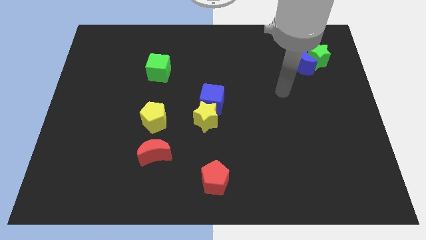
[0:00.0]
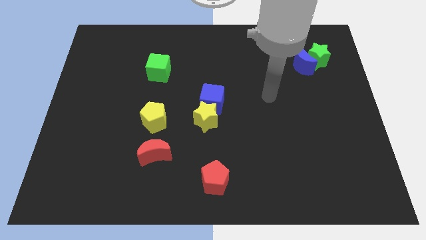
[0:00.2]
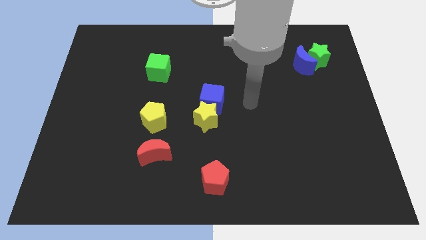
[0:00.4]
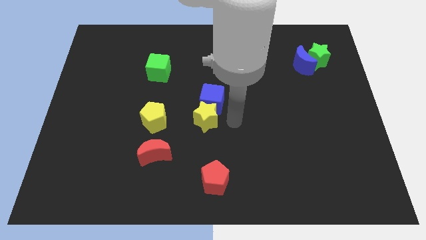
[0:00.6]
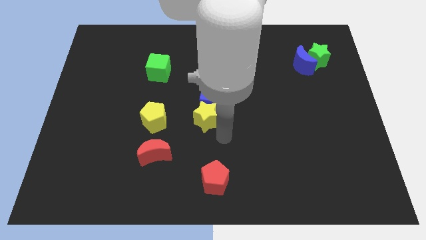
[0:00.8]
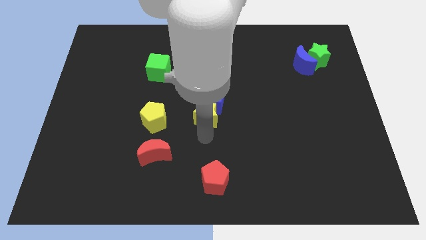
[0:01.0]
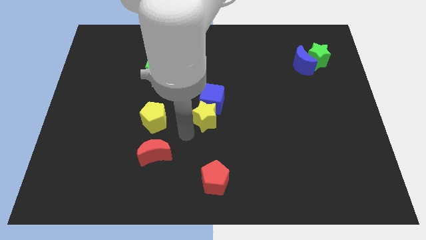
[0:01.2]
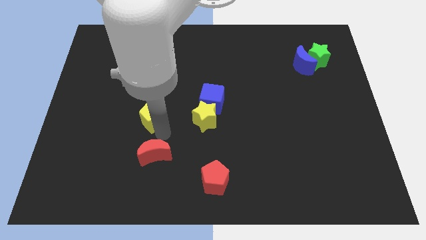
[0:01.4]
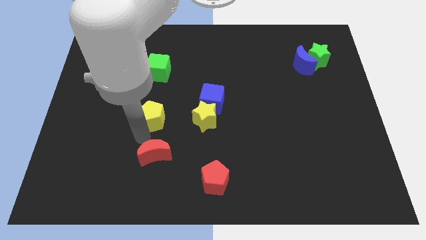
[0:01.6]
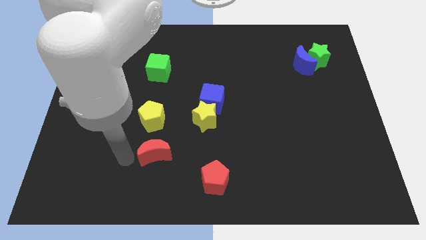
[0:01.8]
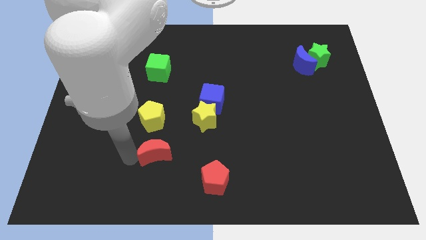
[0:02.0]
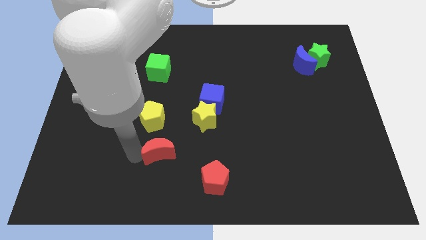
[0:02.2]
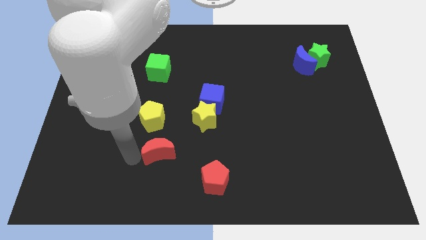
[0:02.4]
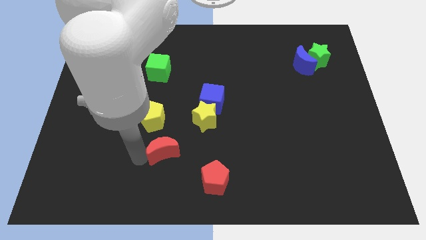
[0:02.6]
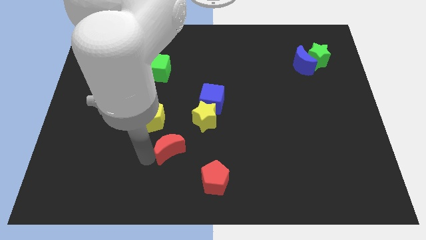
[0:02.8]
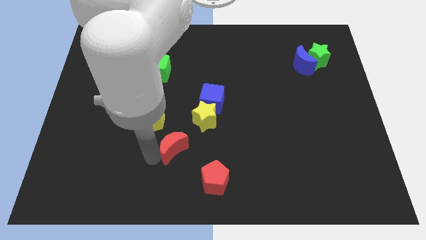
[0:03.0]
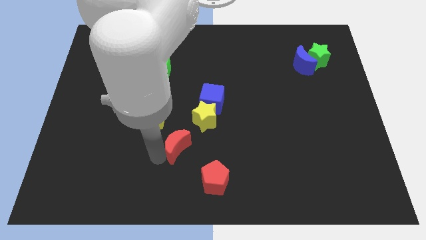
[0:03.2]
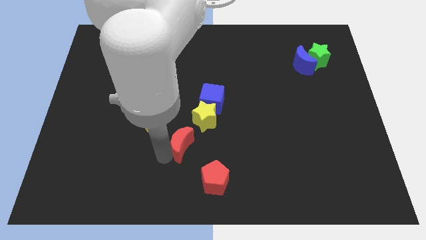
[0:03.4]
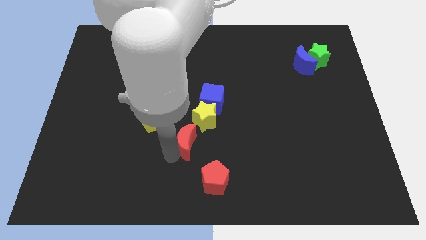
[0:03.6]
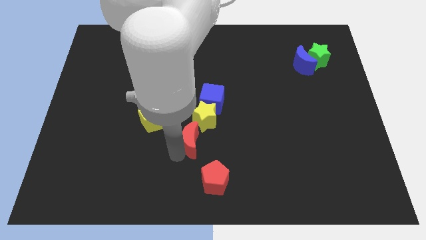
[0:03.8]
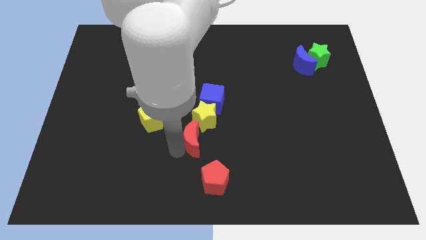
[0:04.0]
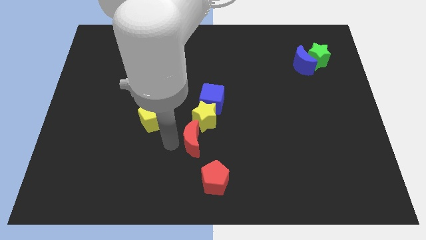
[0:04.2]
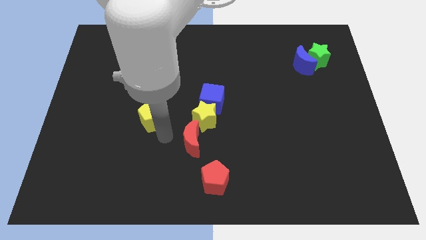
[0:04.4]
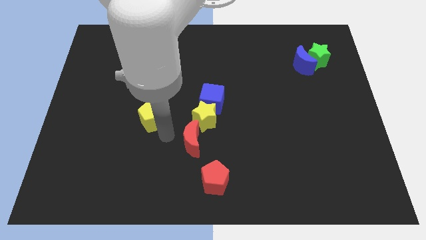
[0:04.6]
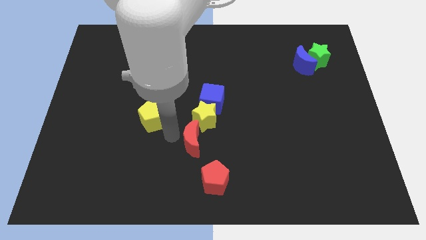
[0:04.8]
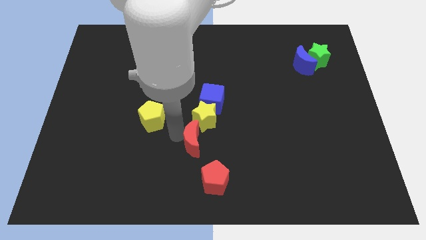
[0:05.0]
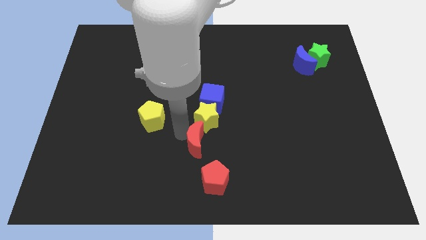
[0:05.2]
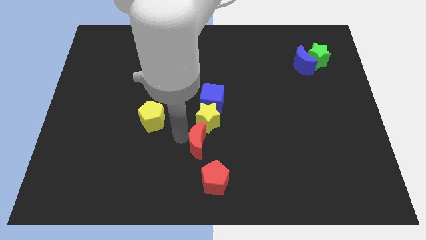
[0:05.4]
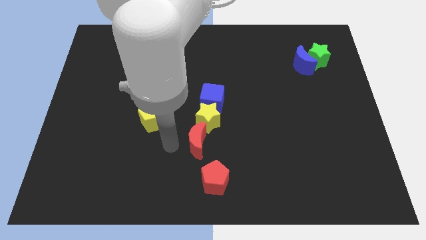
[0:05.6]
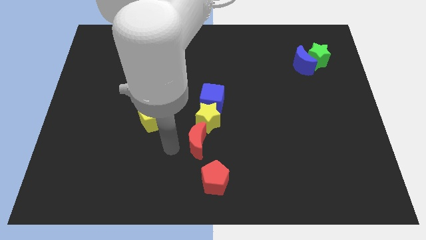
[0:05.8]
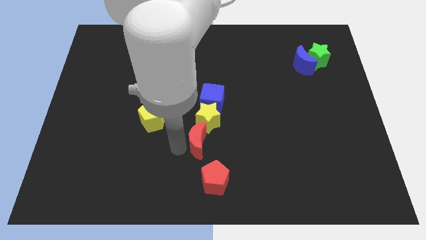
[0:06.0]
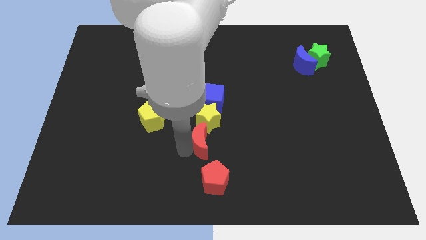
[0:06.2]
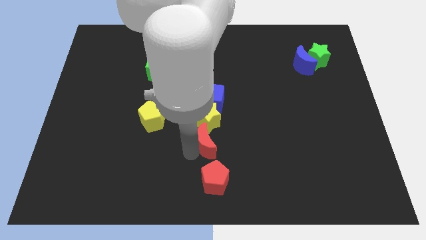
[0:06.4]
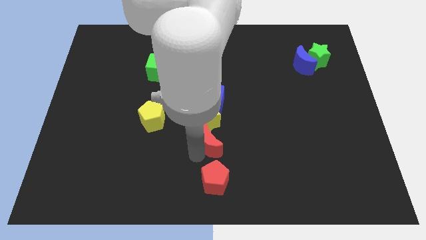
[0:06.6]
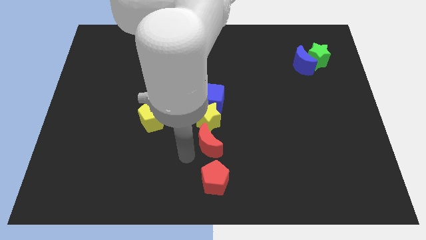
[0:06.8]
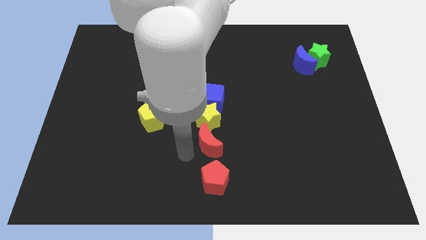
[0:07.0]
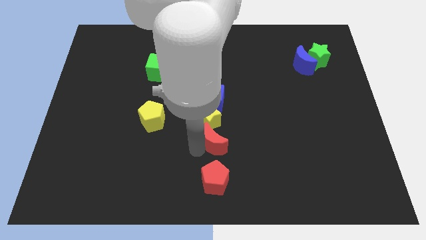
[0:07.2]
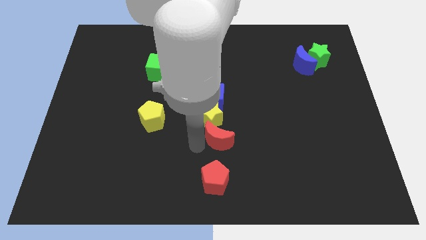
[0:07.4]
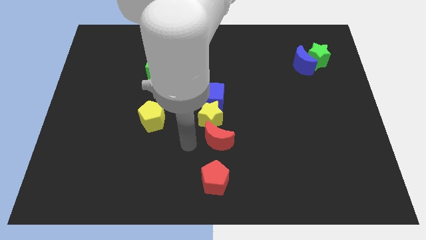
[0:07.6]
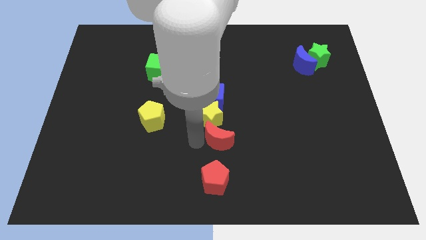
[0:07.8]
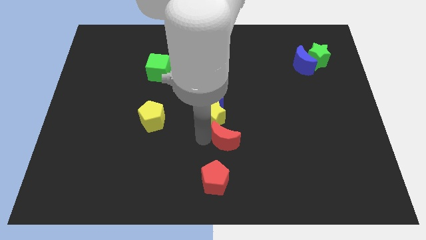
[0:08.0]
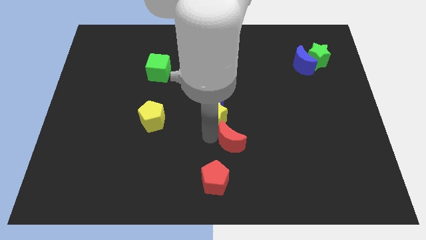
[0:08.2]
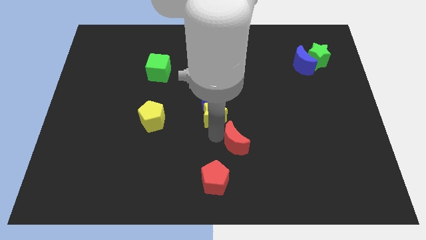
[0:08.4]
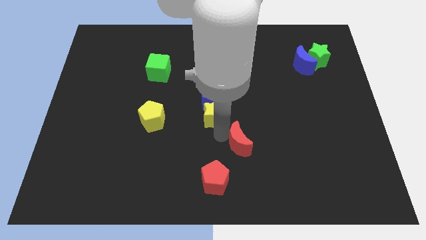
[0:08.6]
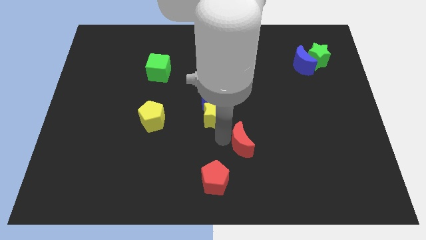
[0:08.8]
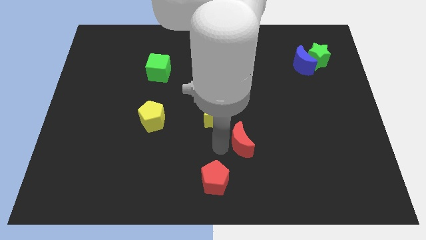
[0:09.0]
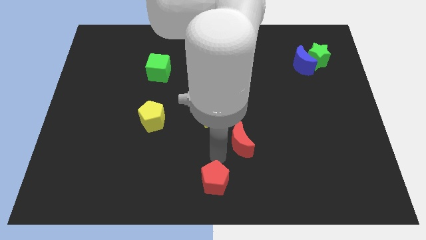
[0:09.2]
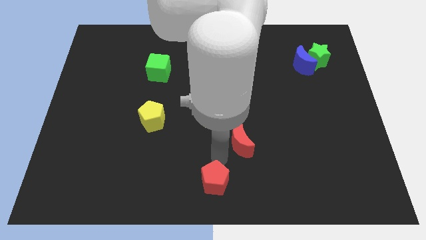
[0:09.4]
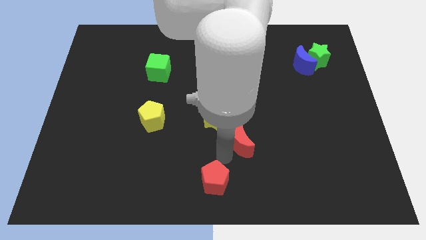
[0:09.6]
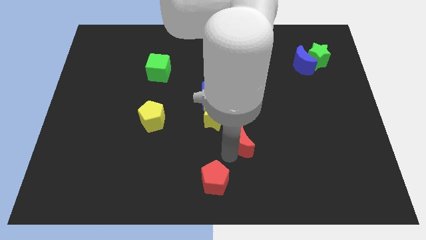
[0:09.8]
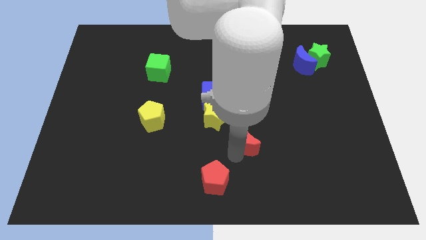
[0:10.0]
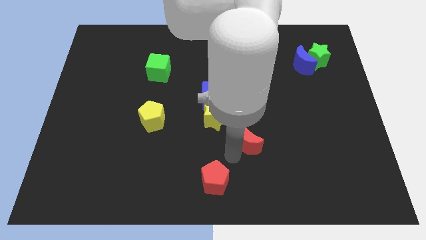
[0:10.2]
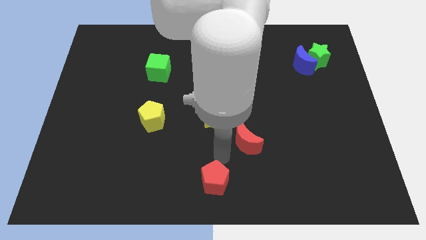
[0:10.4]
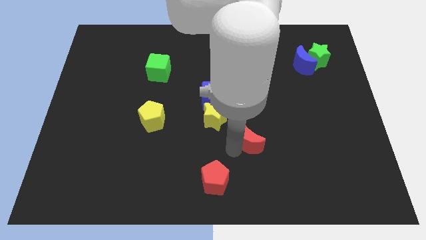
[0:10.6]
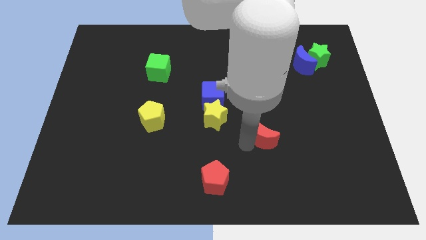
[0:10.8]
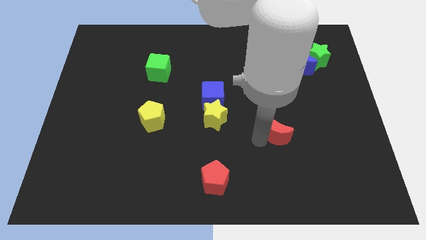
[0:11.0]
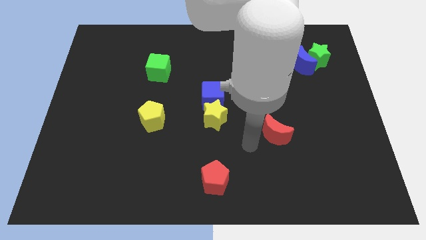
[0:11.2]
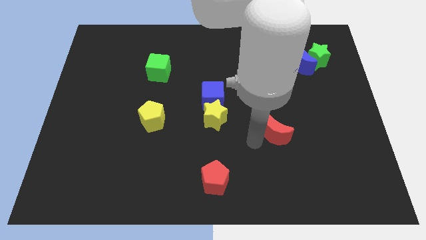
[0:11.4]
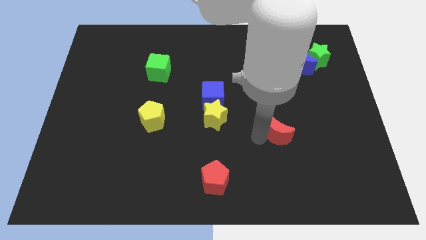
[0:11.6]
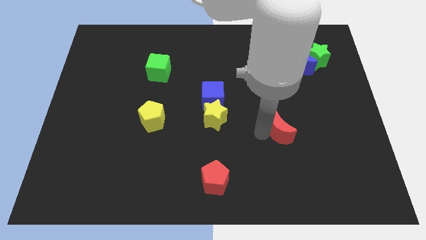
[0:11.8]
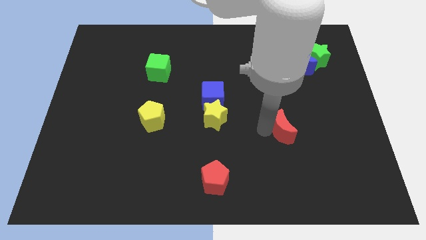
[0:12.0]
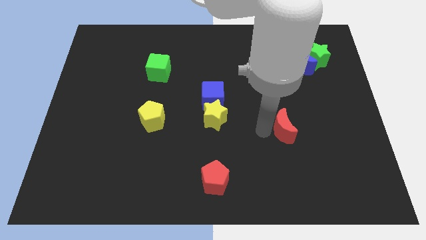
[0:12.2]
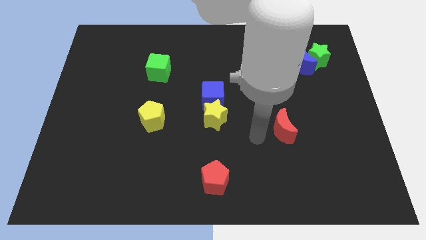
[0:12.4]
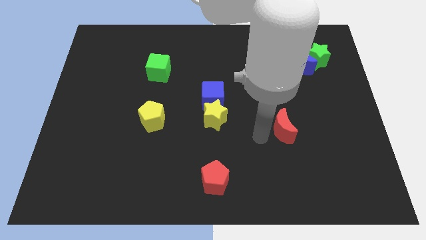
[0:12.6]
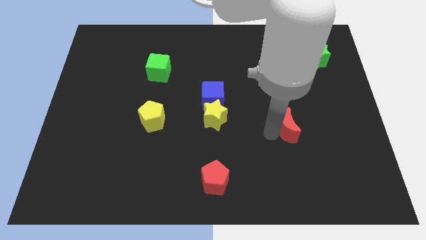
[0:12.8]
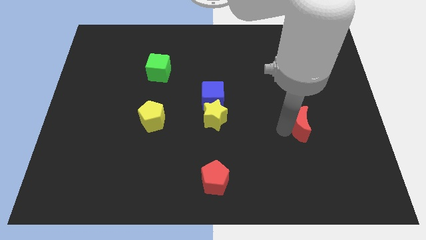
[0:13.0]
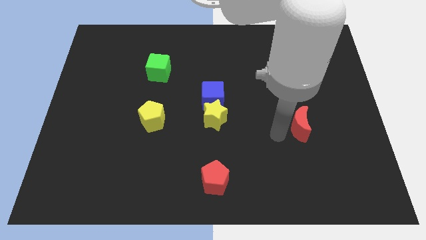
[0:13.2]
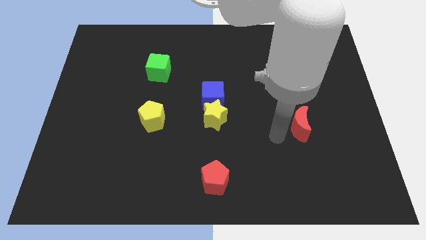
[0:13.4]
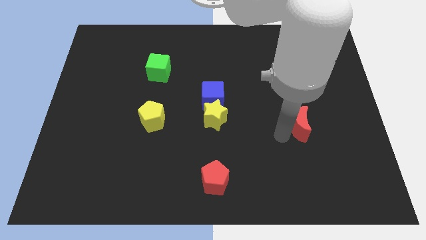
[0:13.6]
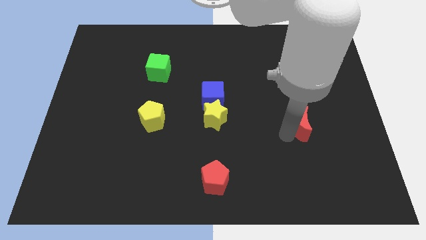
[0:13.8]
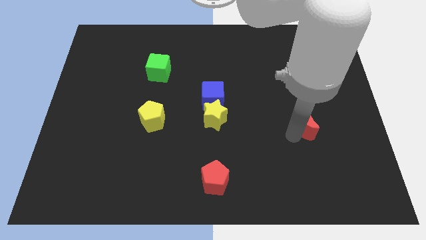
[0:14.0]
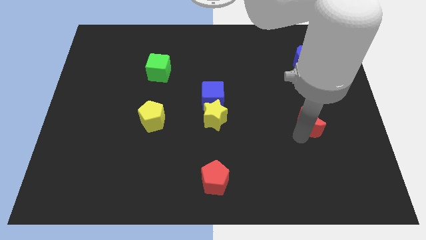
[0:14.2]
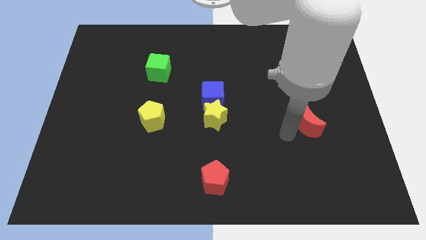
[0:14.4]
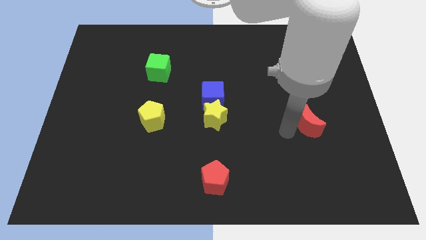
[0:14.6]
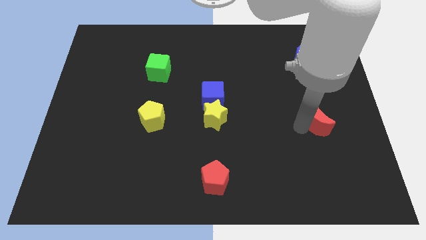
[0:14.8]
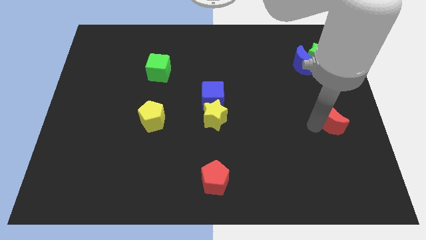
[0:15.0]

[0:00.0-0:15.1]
push the red moon to the right side

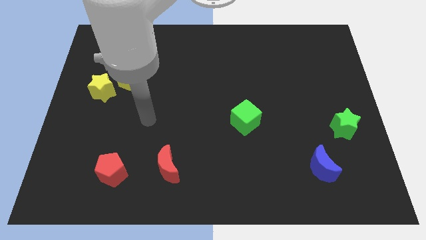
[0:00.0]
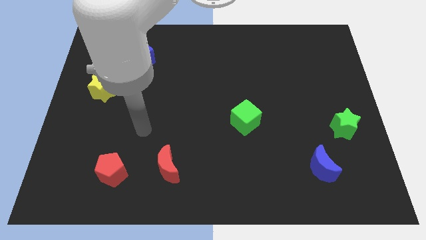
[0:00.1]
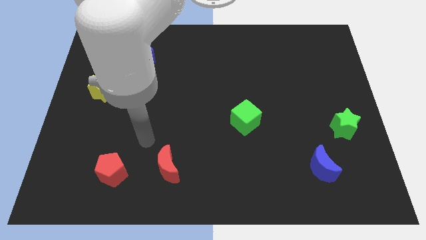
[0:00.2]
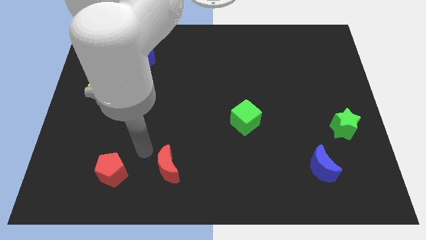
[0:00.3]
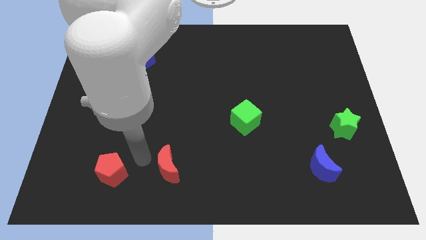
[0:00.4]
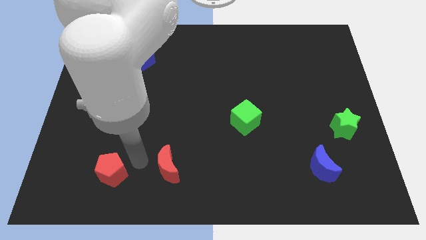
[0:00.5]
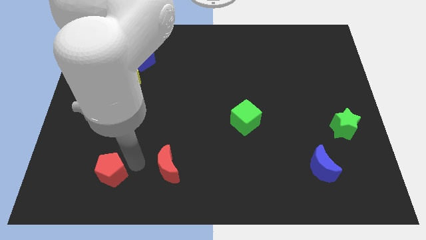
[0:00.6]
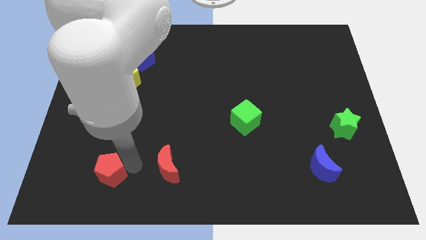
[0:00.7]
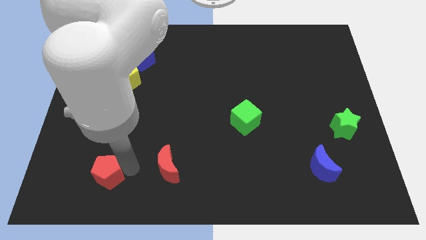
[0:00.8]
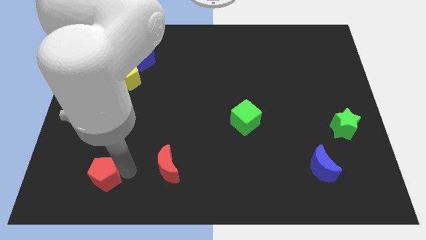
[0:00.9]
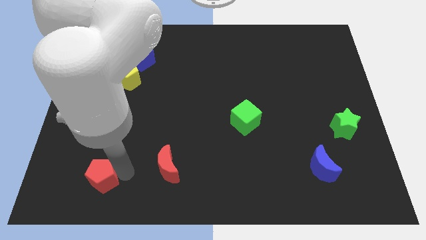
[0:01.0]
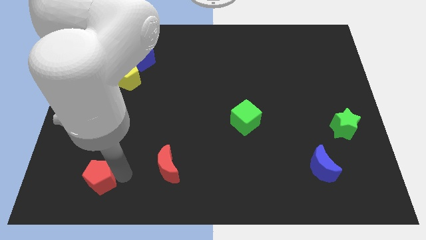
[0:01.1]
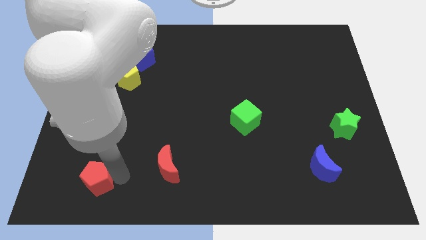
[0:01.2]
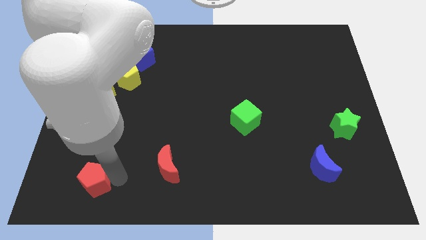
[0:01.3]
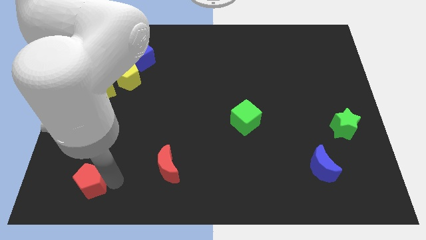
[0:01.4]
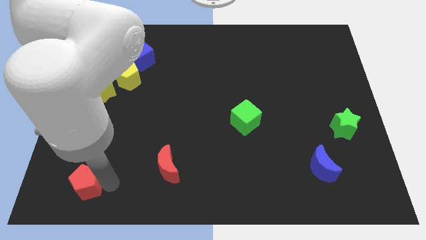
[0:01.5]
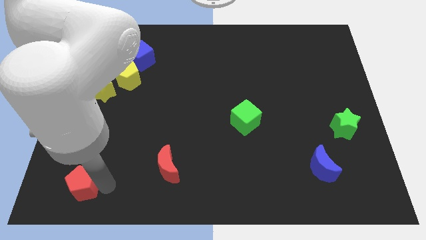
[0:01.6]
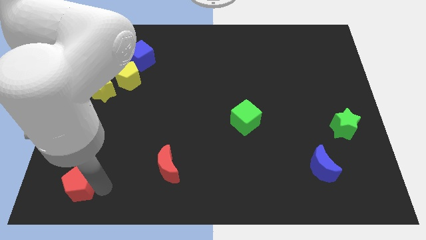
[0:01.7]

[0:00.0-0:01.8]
move the red pentagon to the bottom left corner
